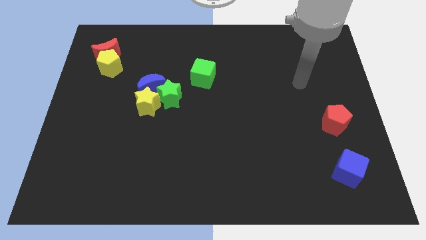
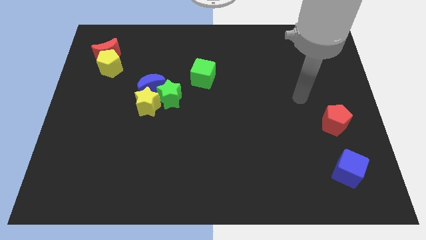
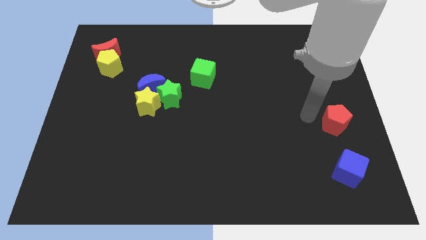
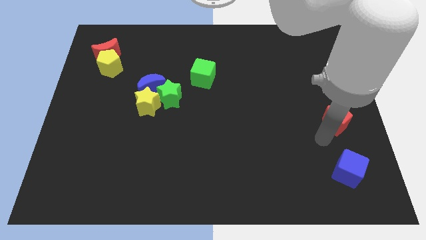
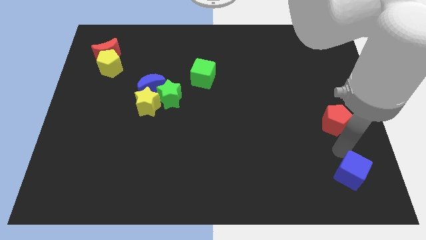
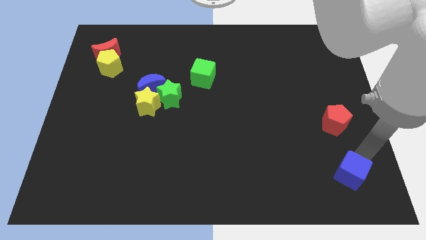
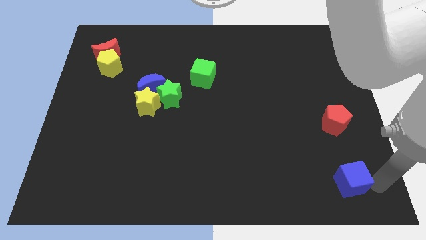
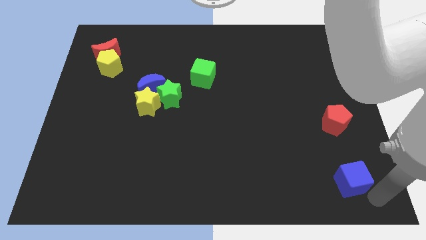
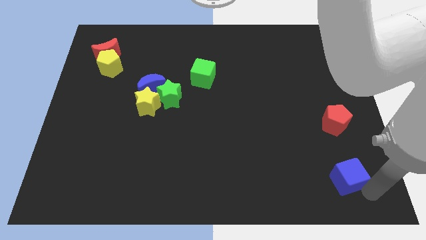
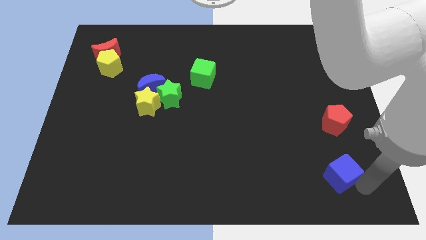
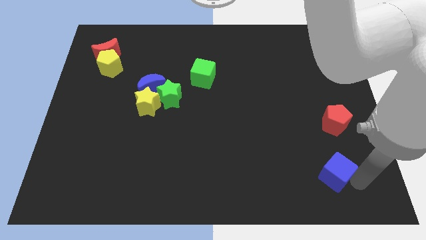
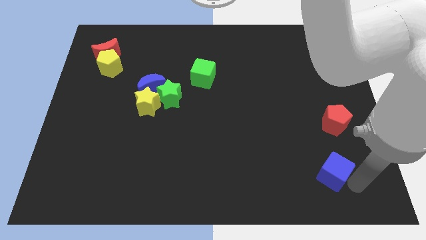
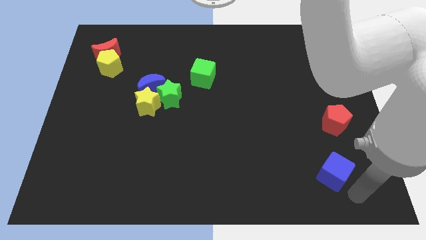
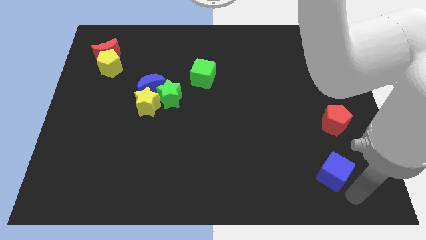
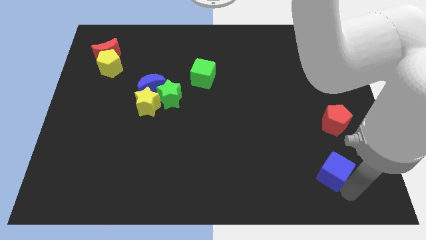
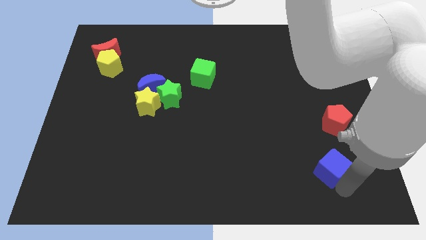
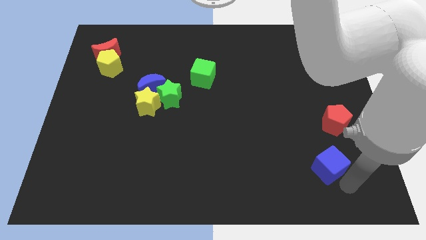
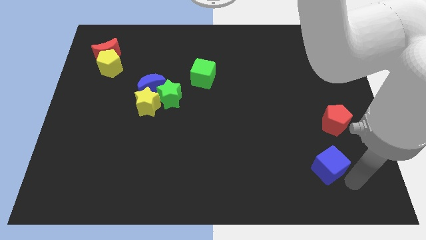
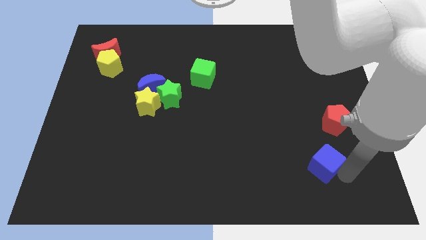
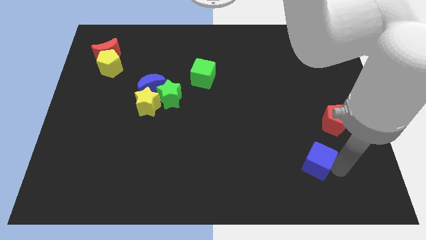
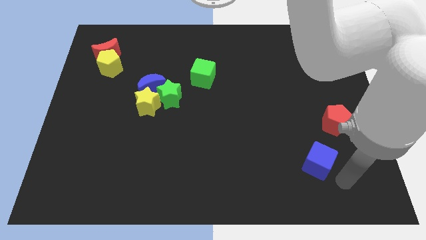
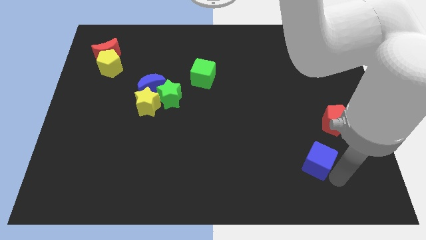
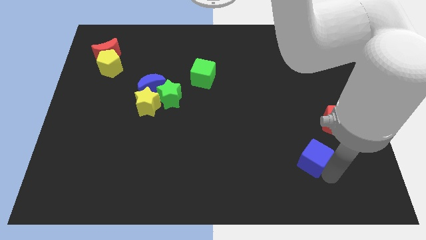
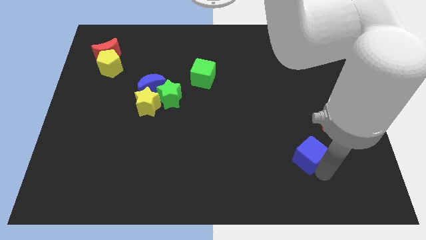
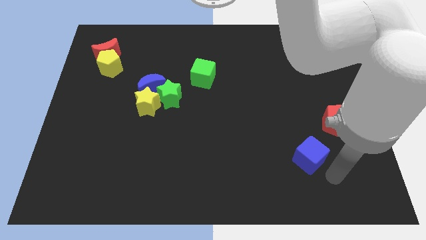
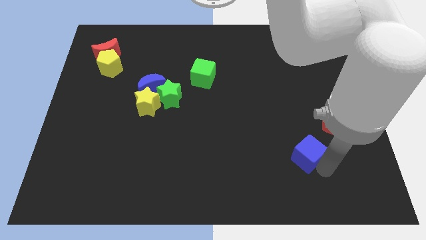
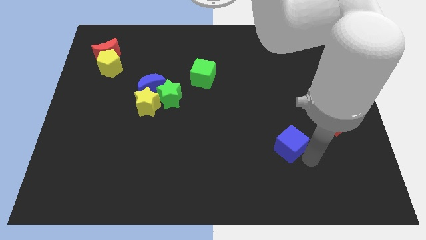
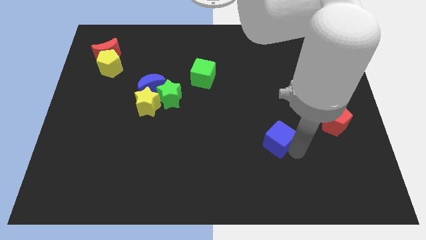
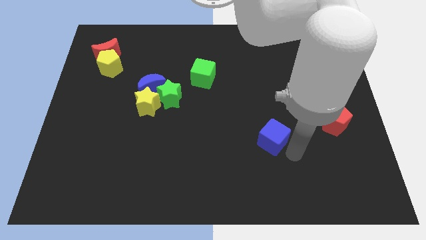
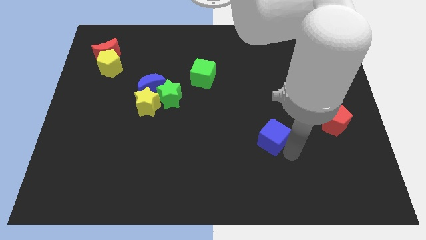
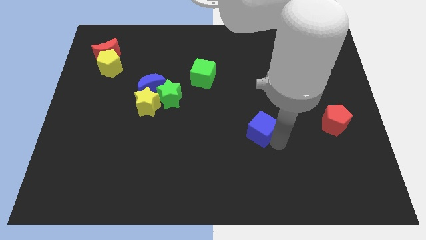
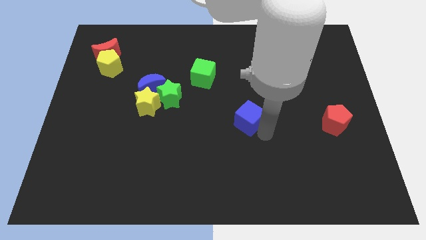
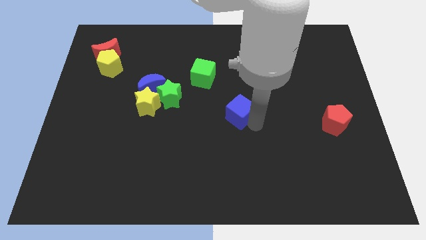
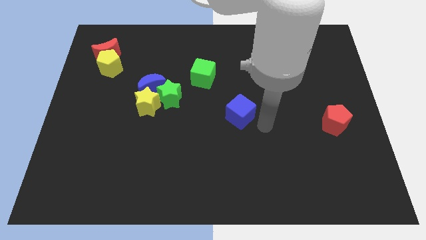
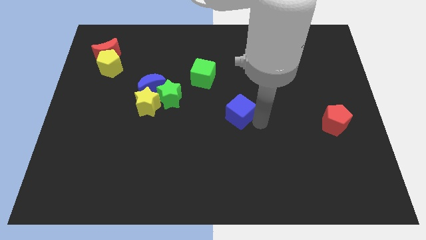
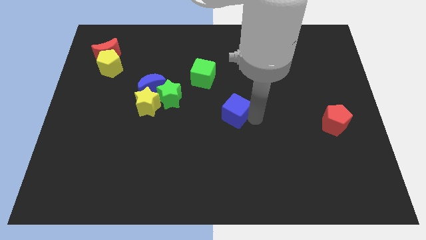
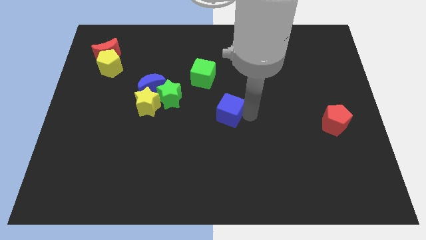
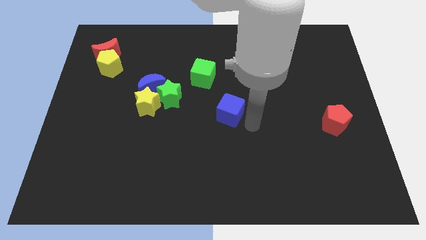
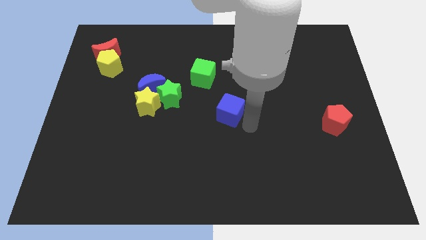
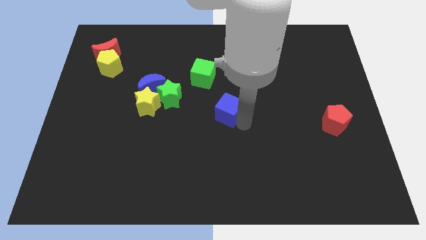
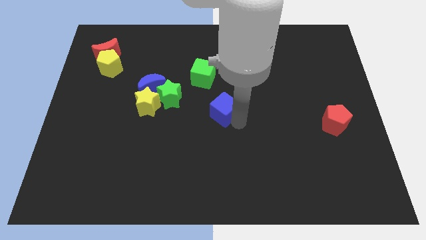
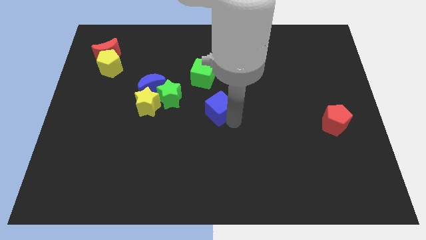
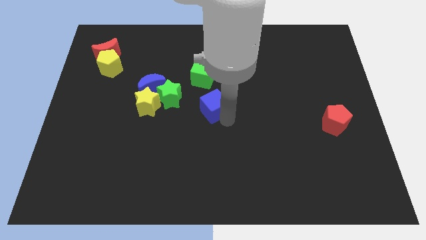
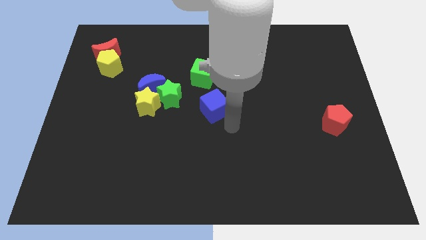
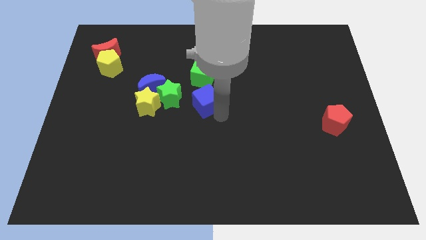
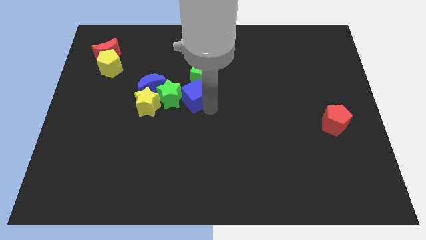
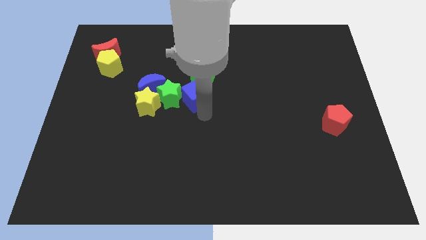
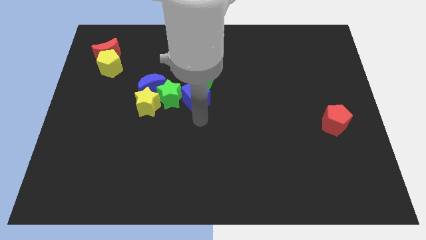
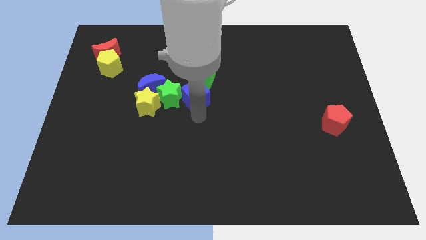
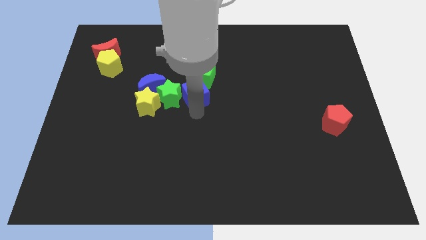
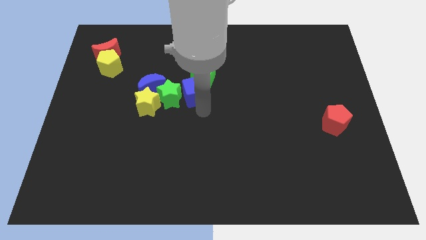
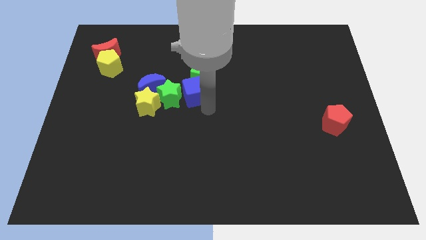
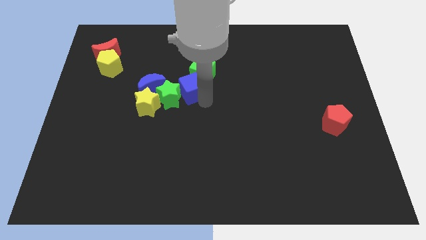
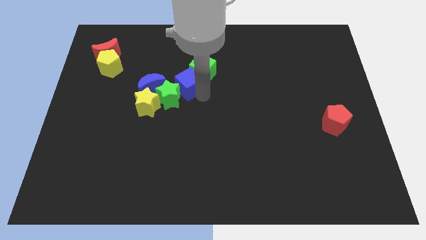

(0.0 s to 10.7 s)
slide the blue cube to the top of the green star

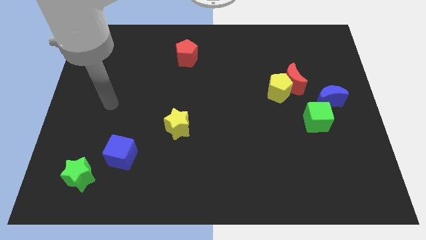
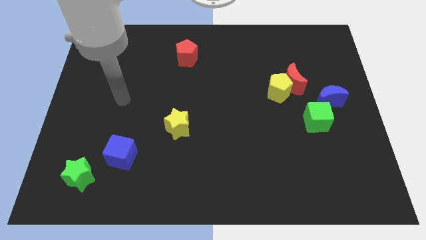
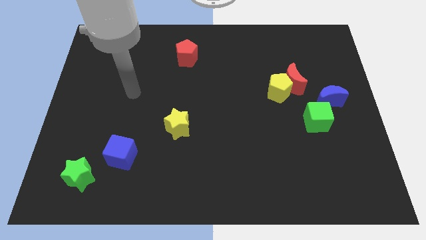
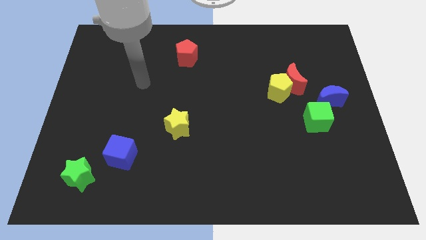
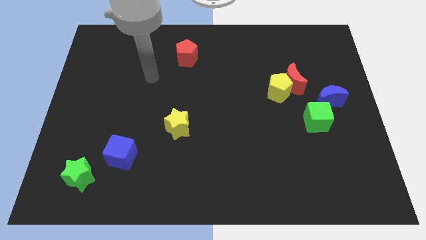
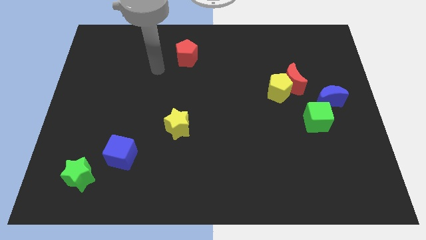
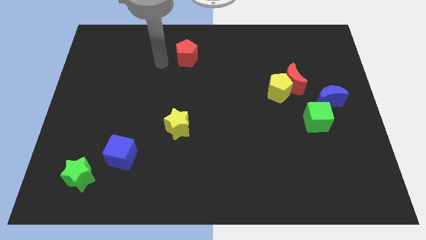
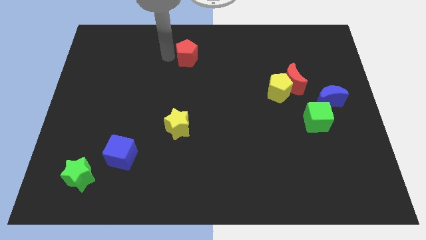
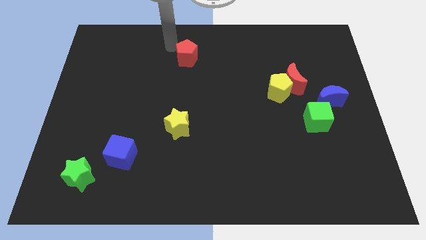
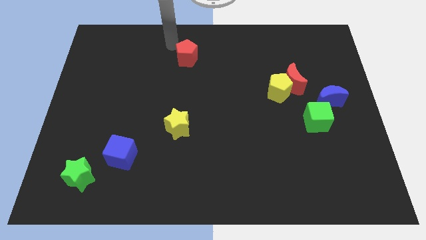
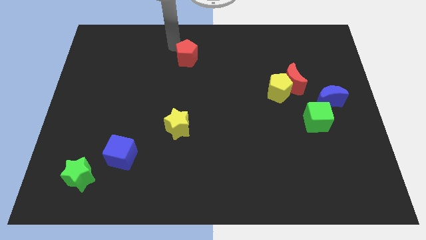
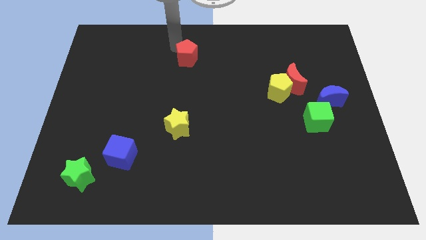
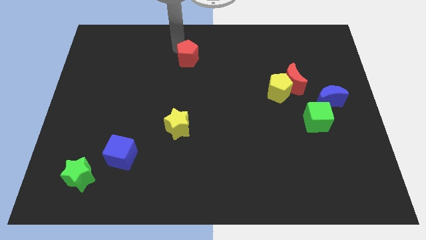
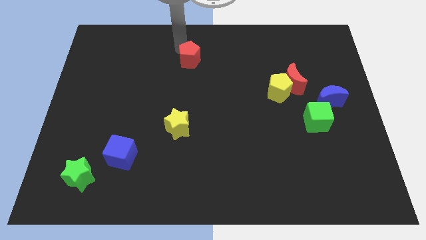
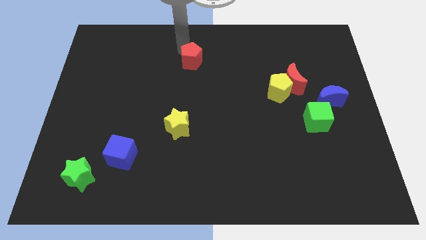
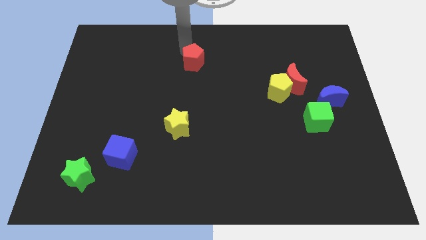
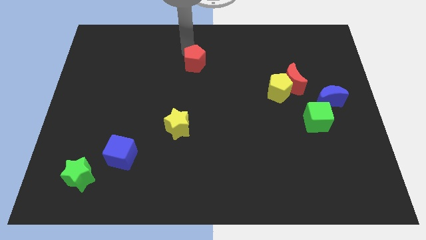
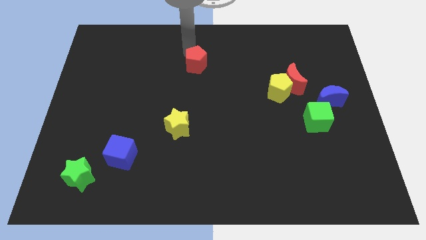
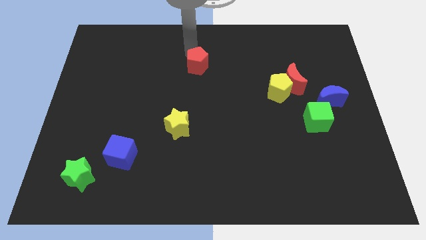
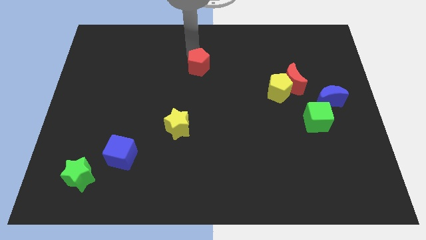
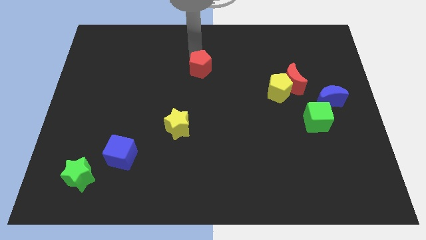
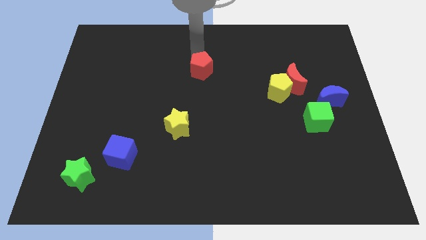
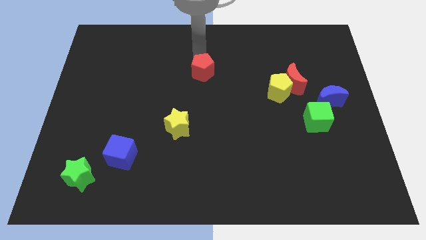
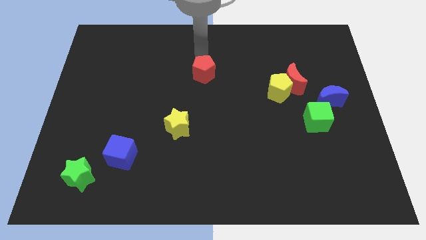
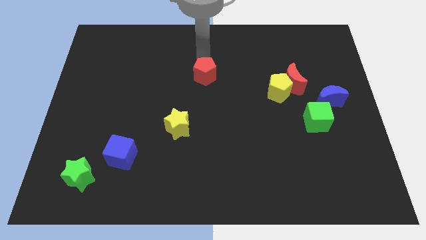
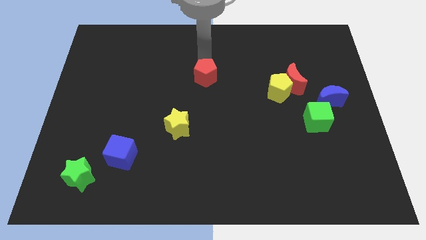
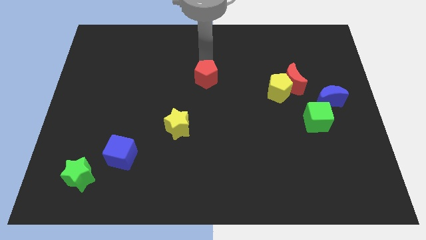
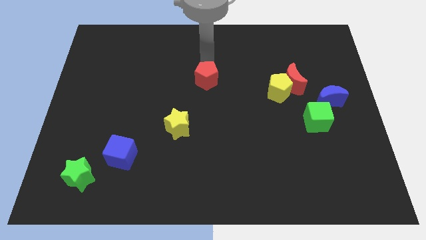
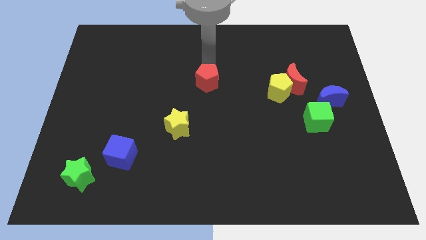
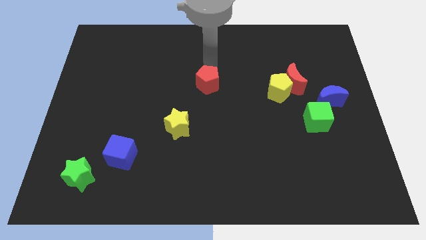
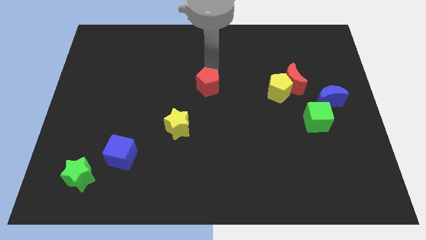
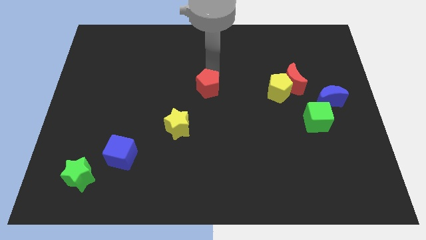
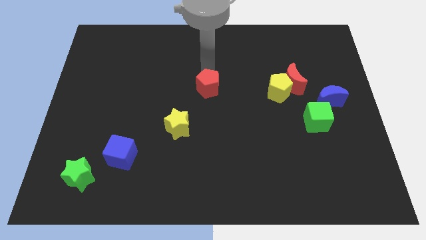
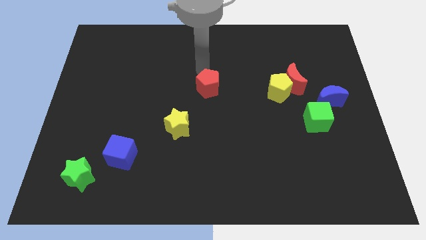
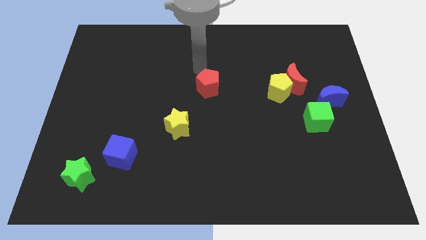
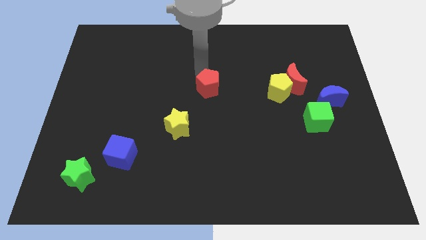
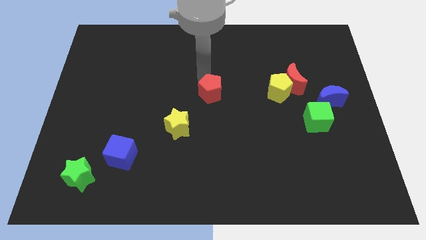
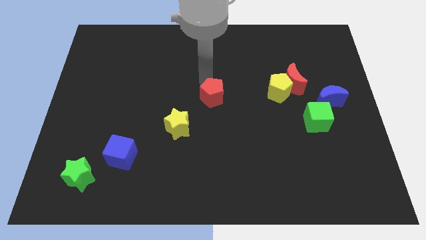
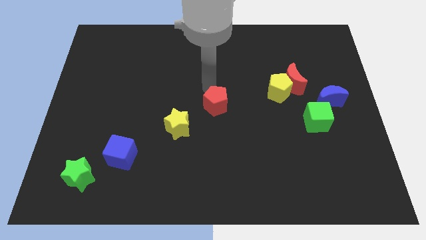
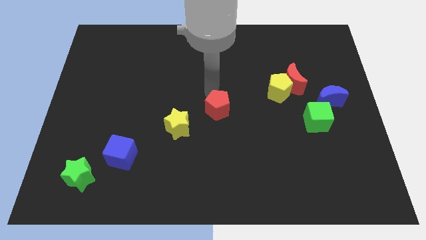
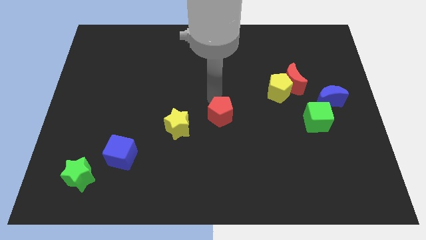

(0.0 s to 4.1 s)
move the red pentagon to the right of the yellow star
